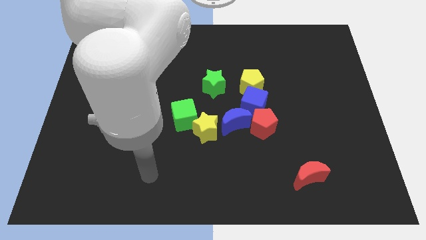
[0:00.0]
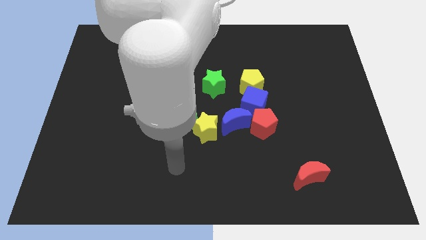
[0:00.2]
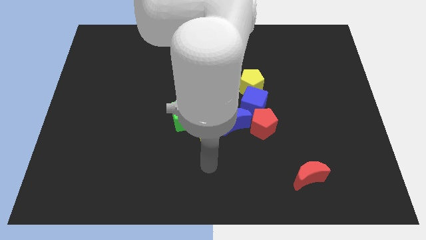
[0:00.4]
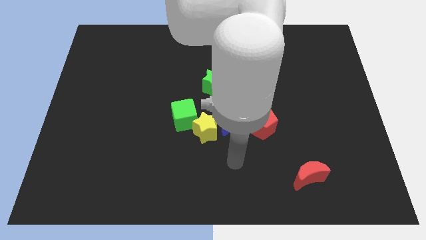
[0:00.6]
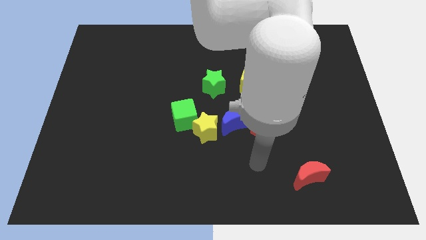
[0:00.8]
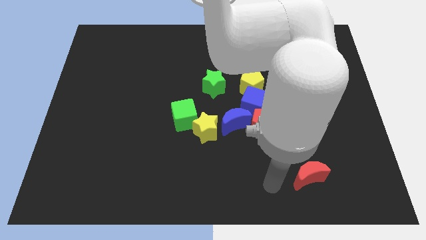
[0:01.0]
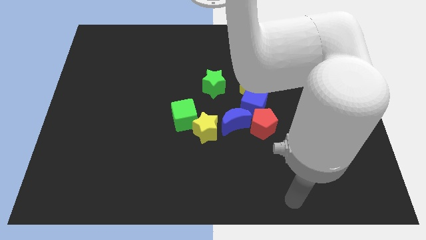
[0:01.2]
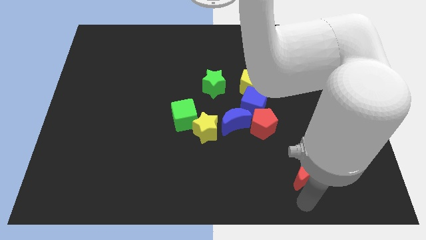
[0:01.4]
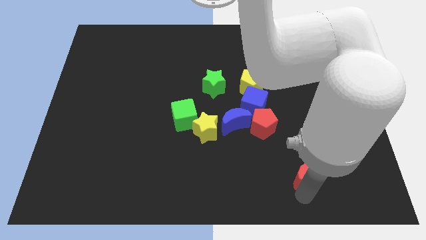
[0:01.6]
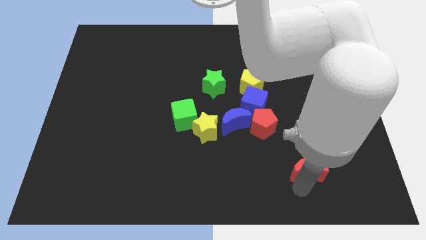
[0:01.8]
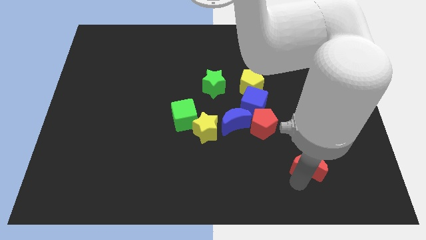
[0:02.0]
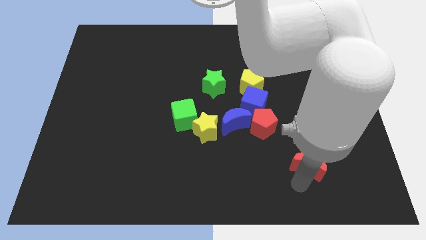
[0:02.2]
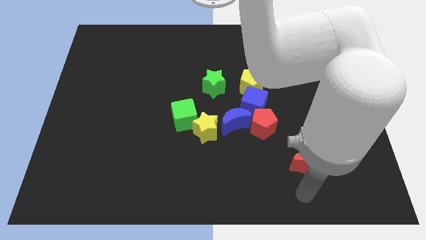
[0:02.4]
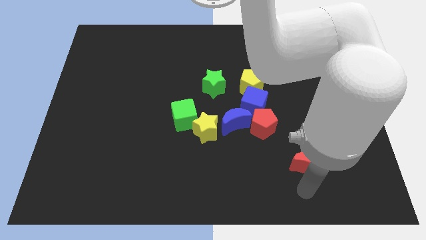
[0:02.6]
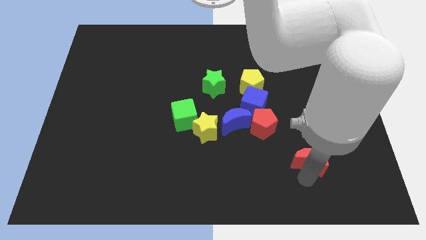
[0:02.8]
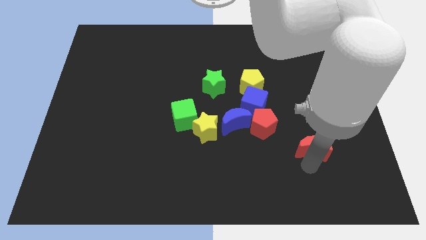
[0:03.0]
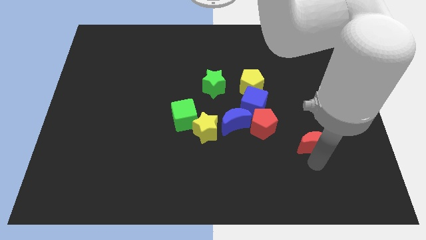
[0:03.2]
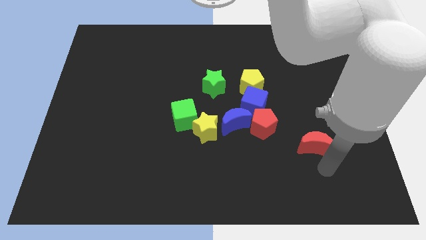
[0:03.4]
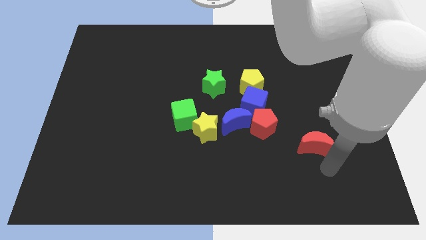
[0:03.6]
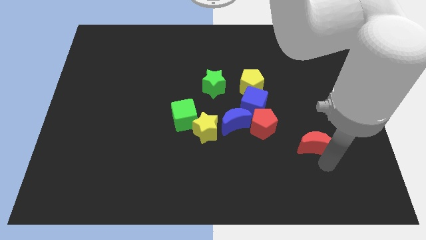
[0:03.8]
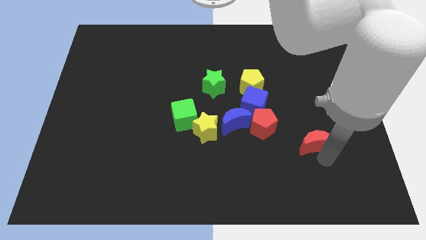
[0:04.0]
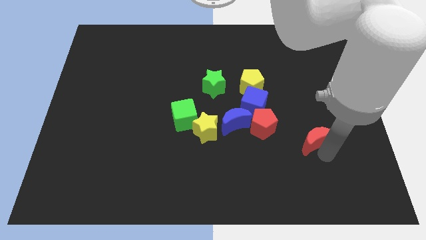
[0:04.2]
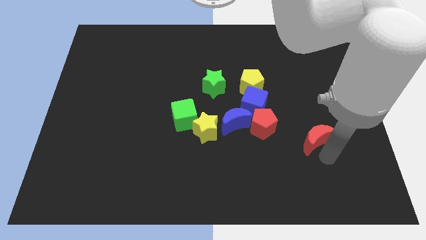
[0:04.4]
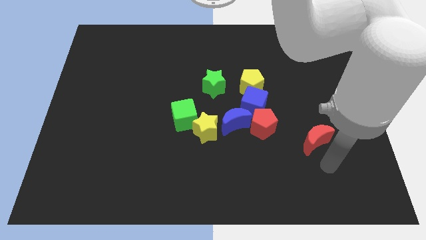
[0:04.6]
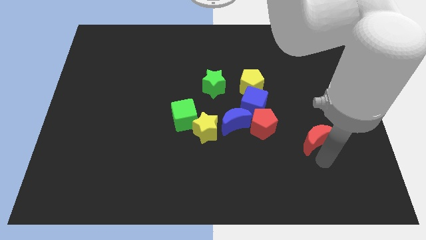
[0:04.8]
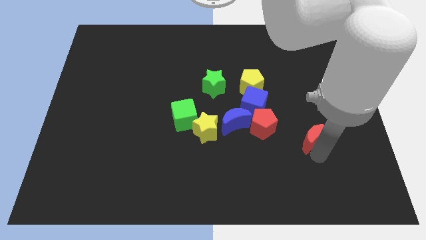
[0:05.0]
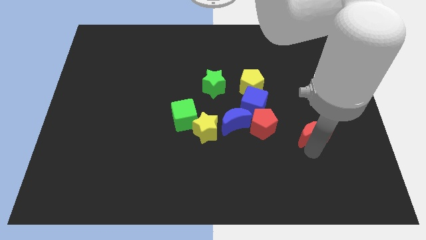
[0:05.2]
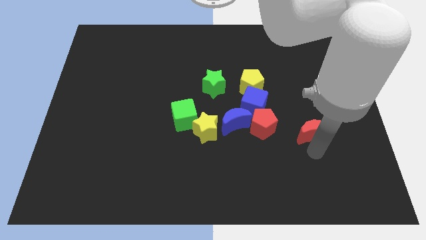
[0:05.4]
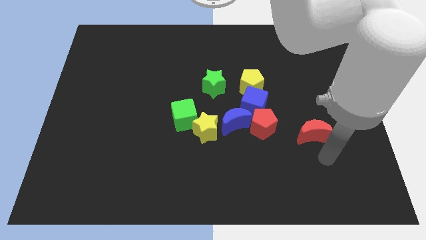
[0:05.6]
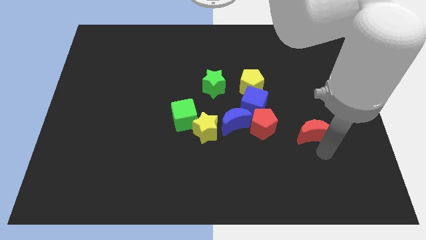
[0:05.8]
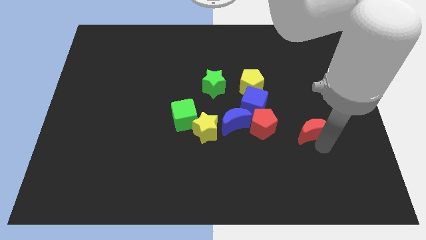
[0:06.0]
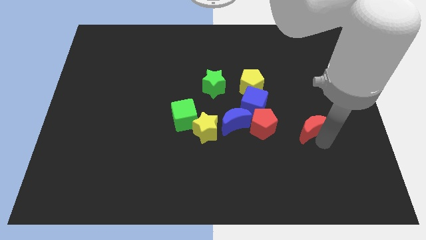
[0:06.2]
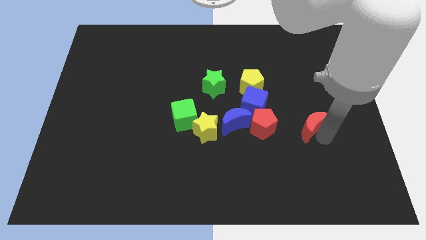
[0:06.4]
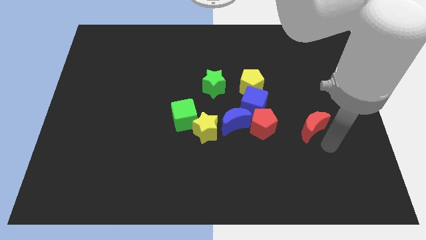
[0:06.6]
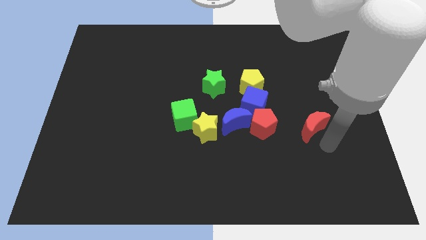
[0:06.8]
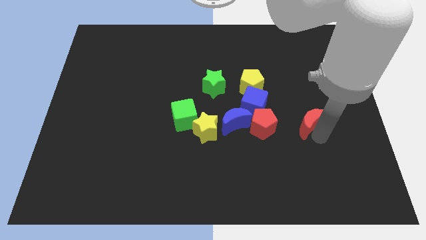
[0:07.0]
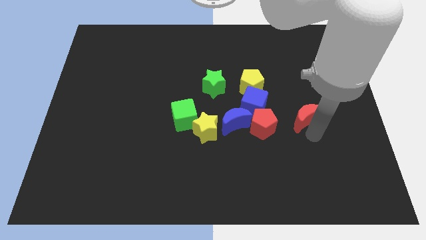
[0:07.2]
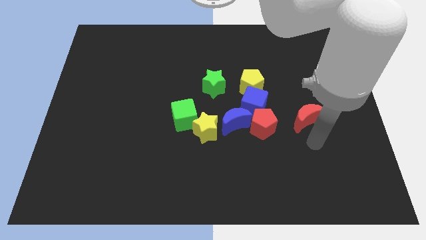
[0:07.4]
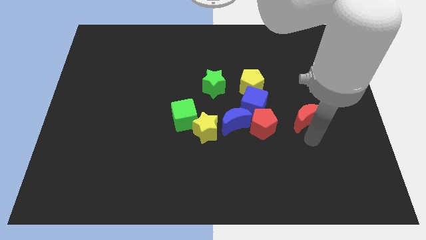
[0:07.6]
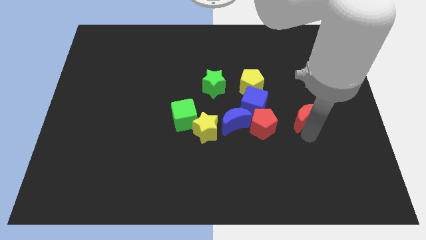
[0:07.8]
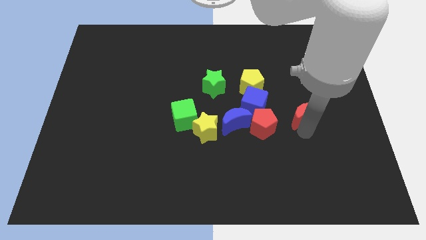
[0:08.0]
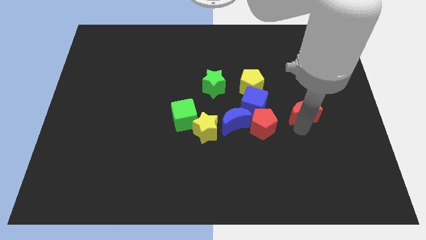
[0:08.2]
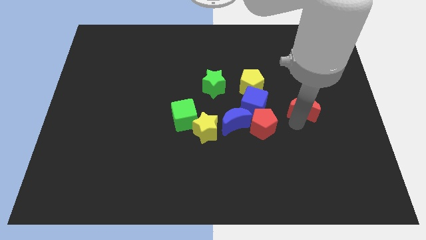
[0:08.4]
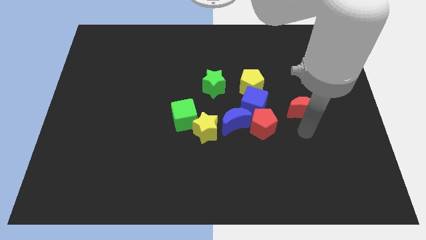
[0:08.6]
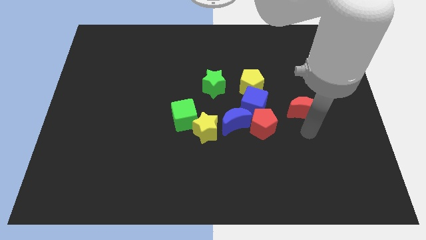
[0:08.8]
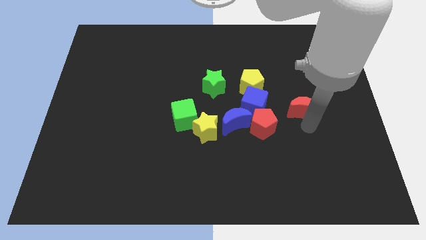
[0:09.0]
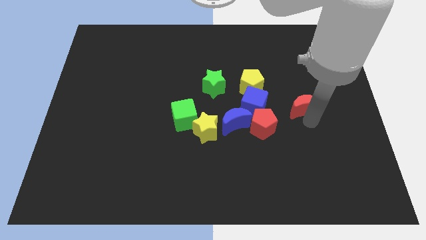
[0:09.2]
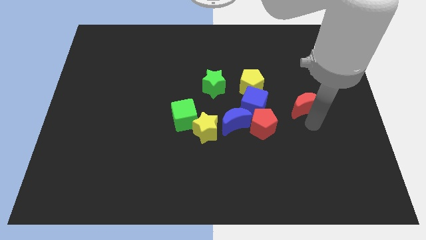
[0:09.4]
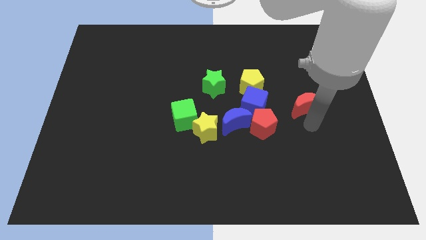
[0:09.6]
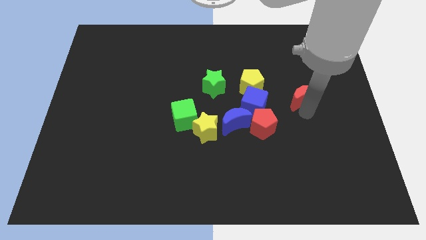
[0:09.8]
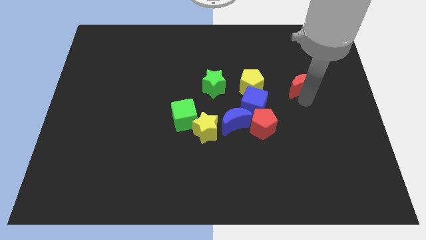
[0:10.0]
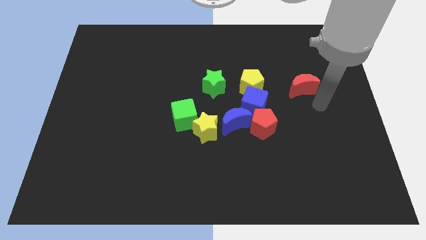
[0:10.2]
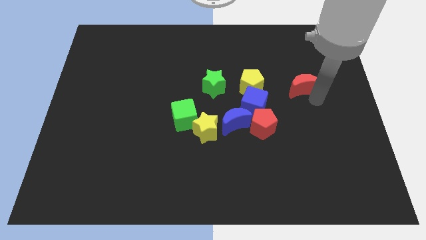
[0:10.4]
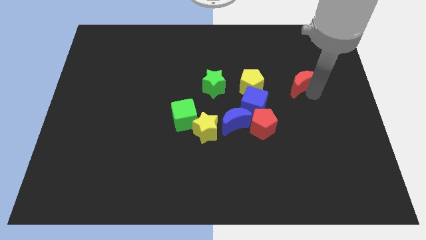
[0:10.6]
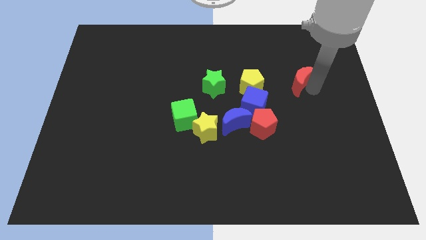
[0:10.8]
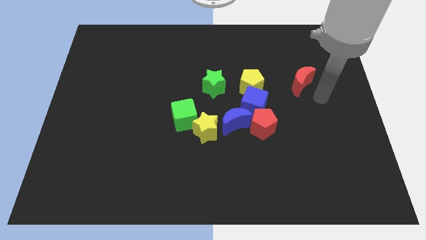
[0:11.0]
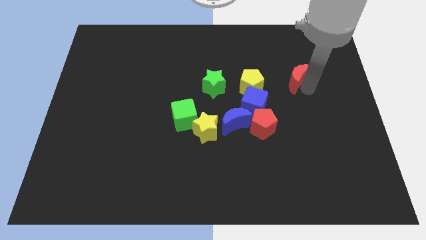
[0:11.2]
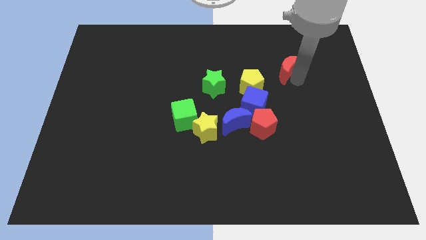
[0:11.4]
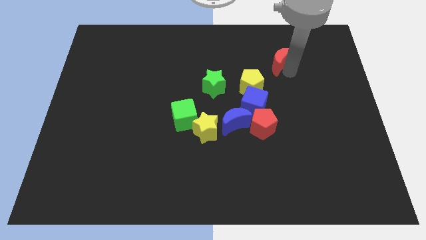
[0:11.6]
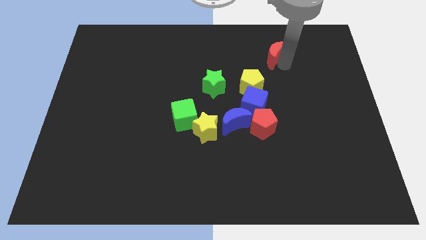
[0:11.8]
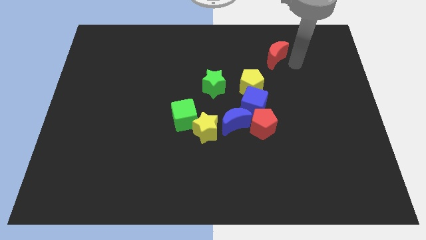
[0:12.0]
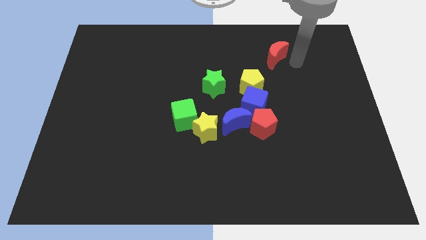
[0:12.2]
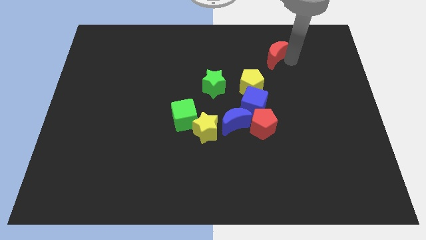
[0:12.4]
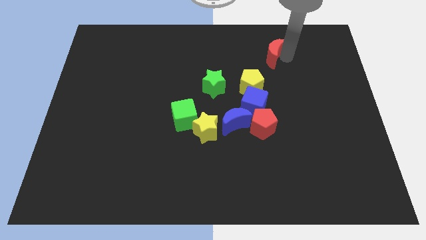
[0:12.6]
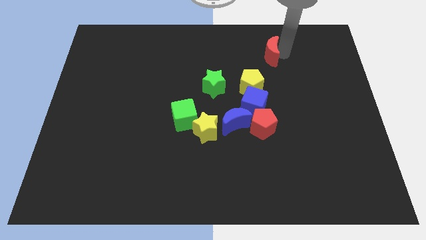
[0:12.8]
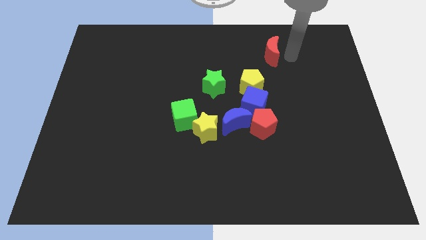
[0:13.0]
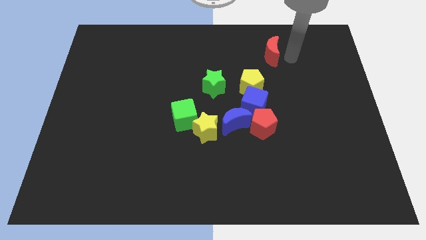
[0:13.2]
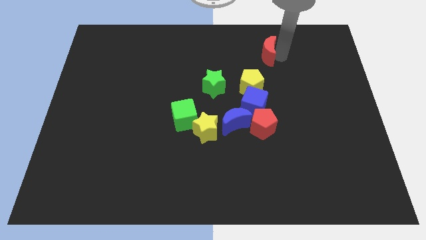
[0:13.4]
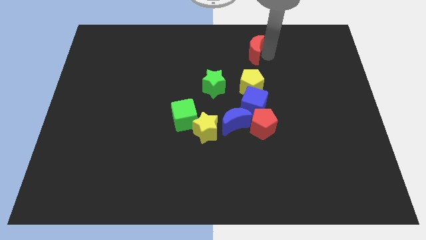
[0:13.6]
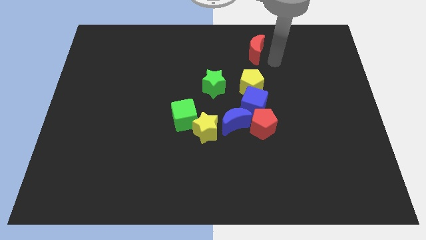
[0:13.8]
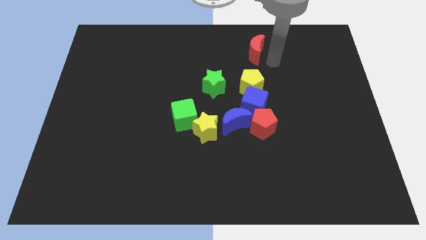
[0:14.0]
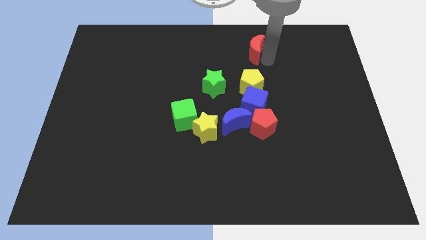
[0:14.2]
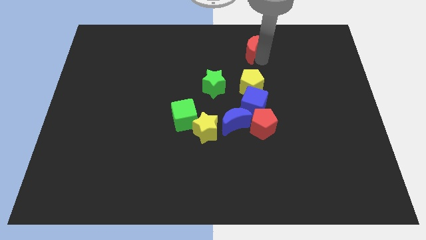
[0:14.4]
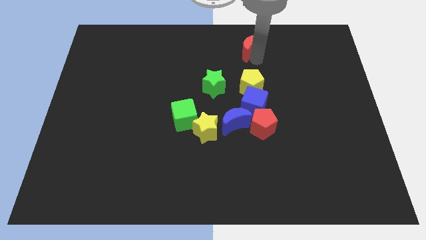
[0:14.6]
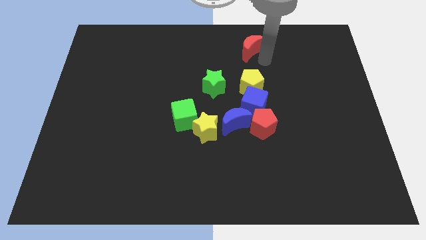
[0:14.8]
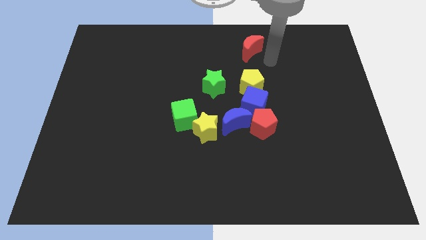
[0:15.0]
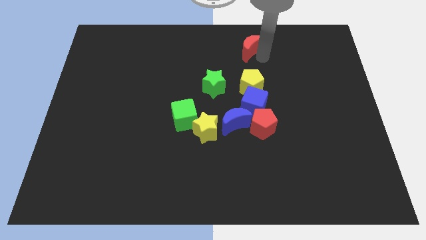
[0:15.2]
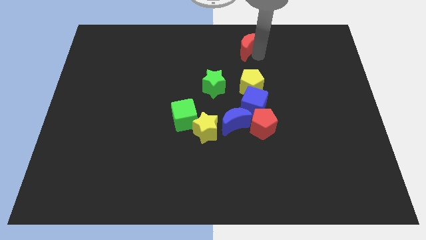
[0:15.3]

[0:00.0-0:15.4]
put the red moon to the top
